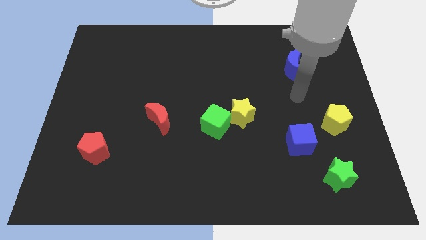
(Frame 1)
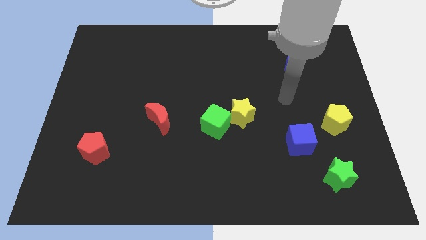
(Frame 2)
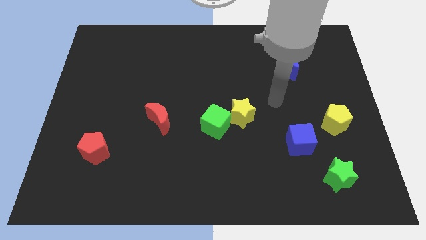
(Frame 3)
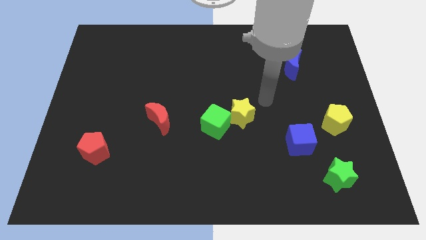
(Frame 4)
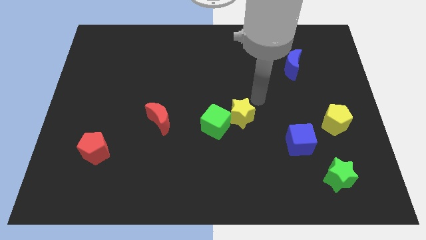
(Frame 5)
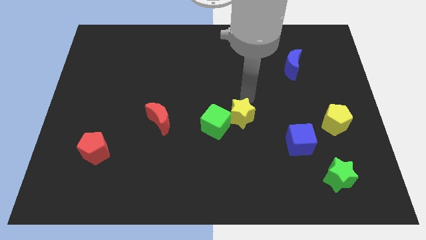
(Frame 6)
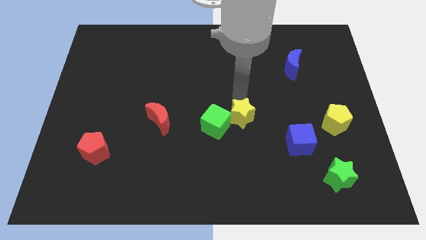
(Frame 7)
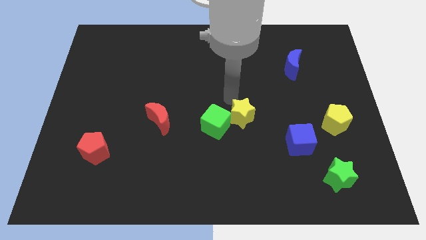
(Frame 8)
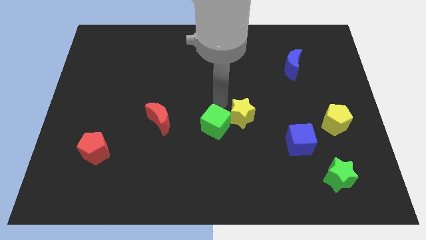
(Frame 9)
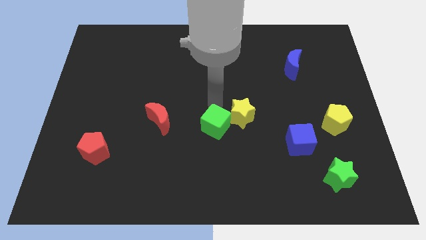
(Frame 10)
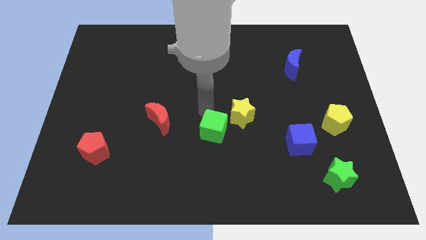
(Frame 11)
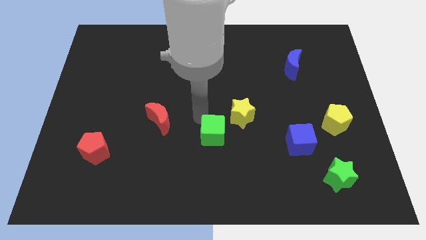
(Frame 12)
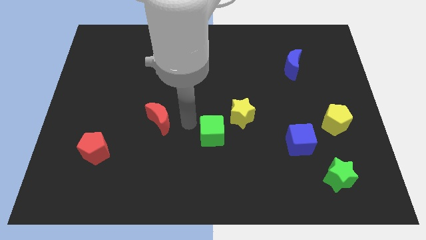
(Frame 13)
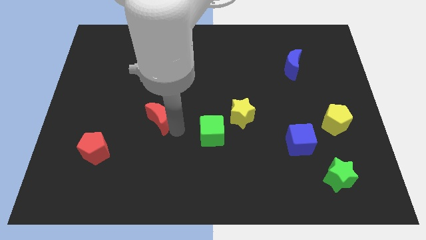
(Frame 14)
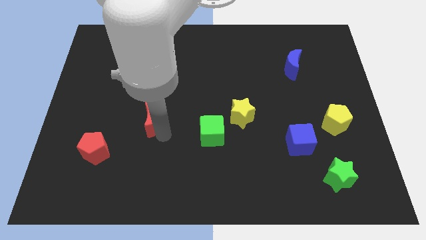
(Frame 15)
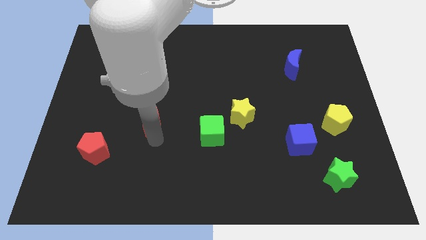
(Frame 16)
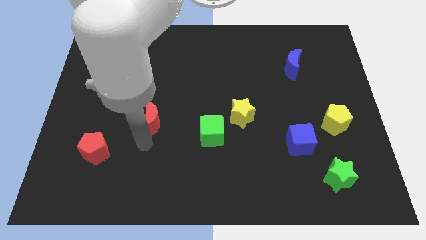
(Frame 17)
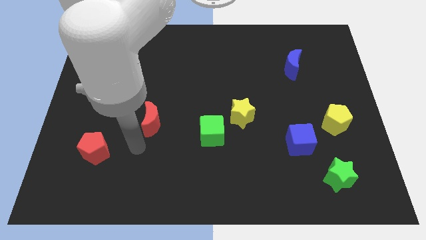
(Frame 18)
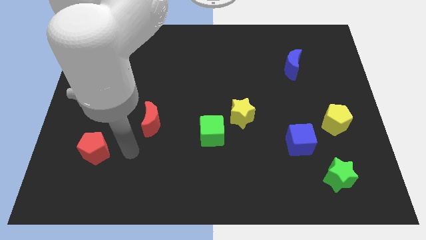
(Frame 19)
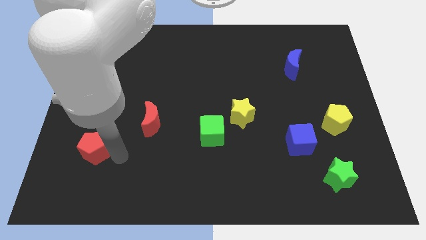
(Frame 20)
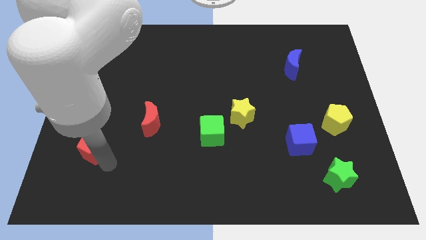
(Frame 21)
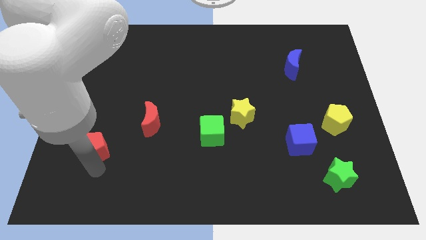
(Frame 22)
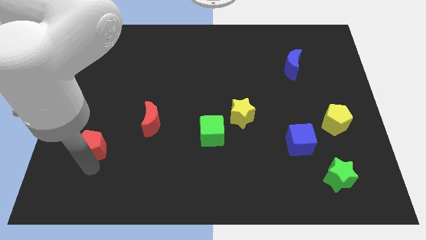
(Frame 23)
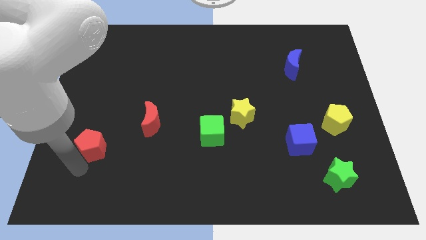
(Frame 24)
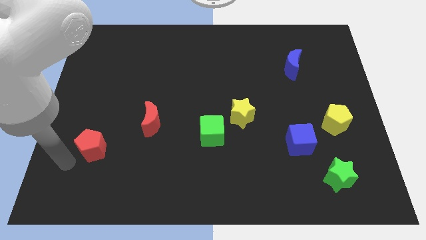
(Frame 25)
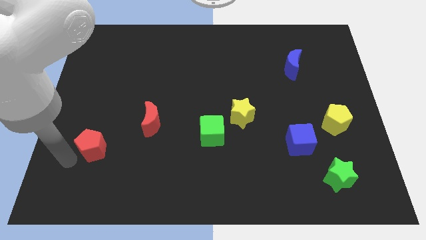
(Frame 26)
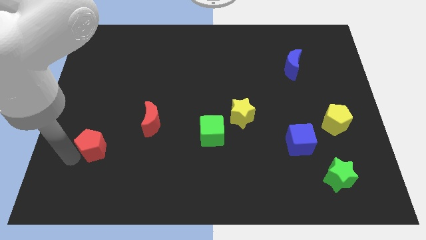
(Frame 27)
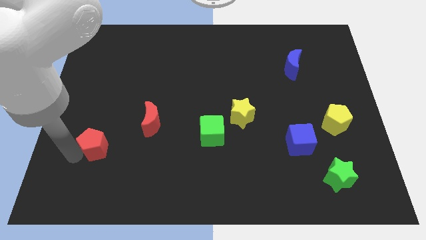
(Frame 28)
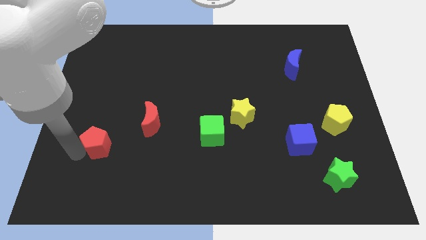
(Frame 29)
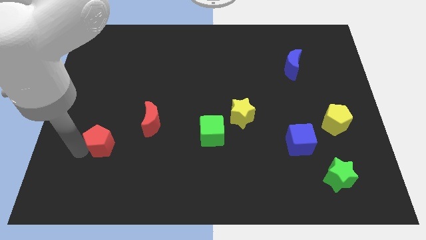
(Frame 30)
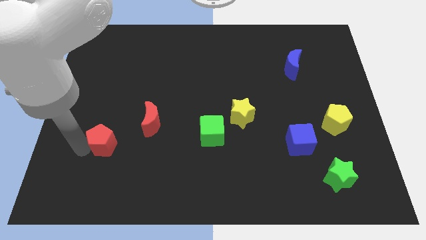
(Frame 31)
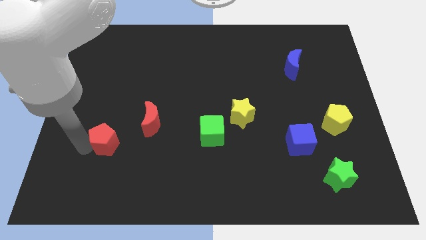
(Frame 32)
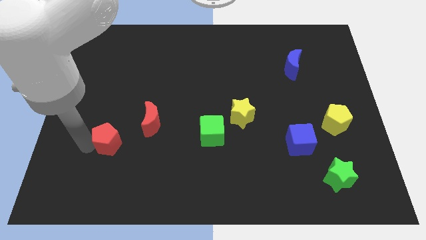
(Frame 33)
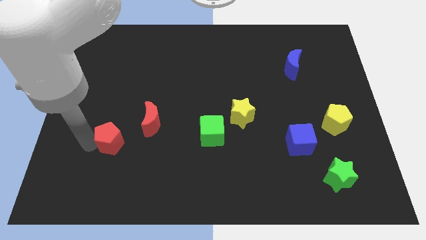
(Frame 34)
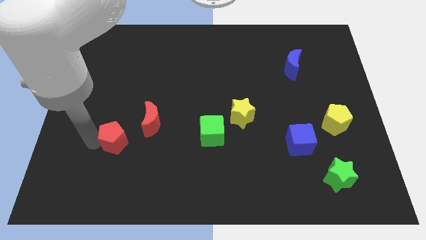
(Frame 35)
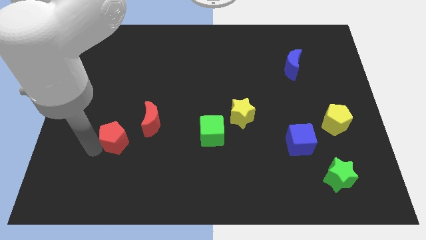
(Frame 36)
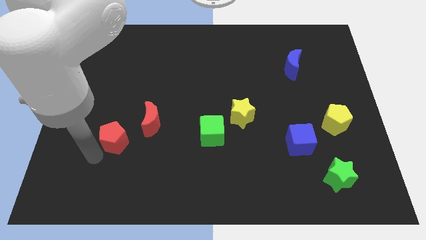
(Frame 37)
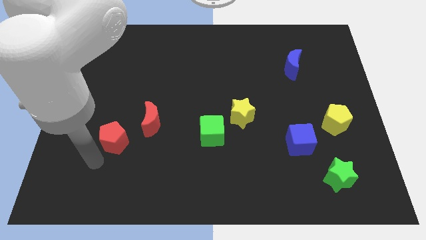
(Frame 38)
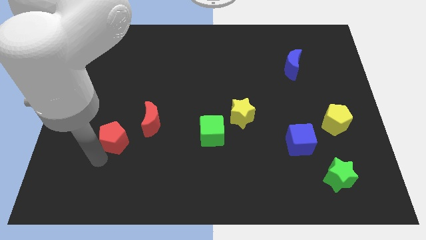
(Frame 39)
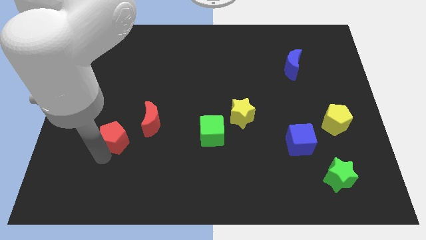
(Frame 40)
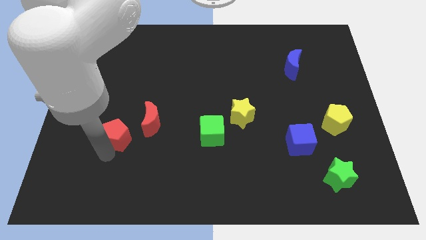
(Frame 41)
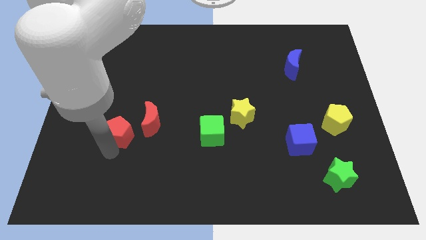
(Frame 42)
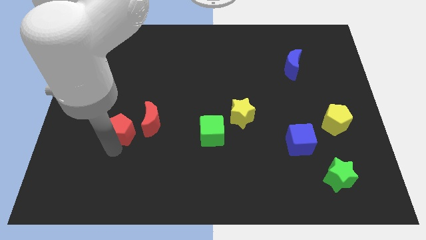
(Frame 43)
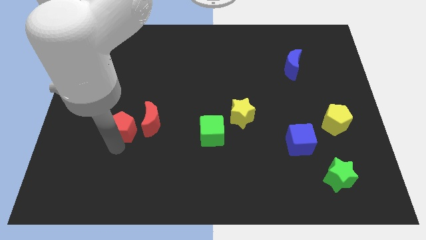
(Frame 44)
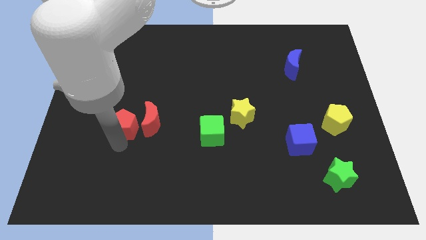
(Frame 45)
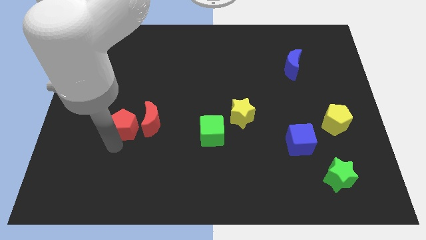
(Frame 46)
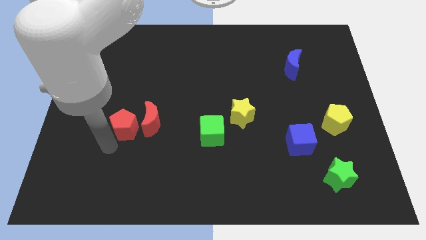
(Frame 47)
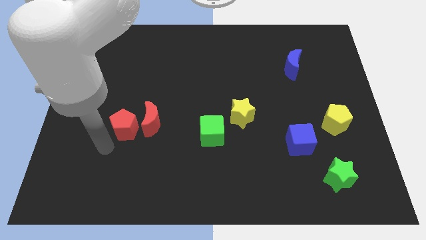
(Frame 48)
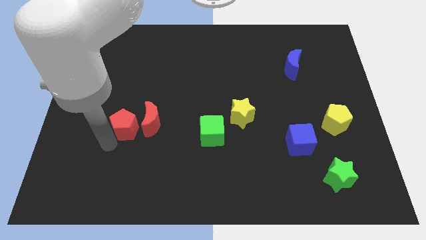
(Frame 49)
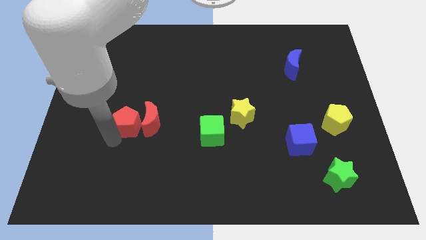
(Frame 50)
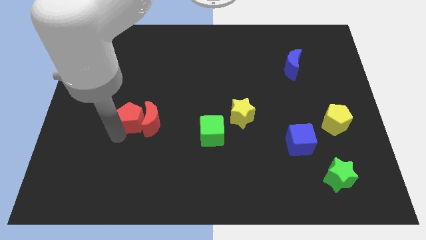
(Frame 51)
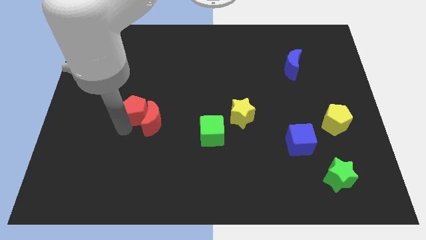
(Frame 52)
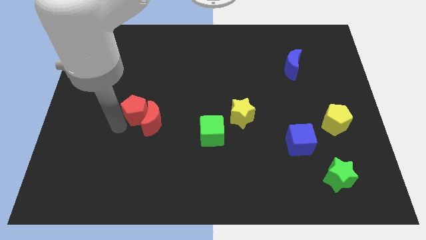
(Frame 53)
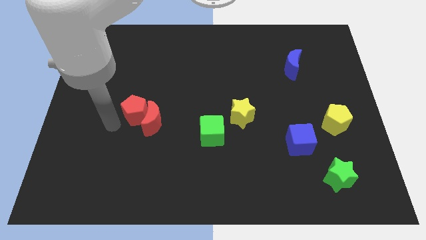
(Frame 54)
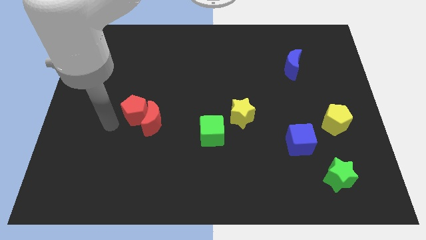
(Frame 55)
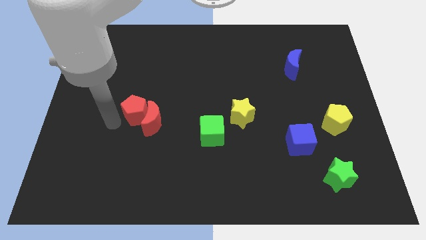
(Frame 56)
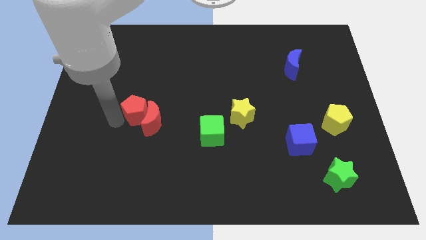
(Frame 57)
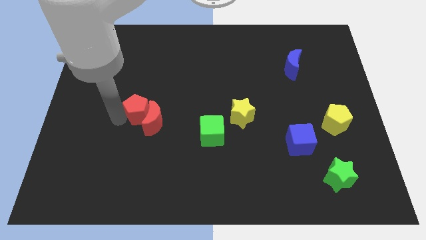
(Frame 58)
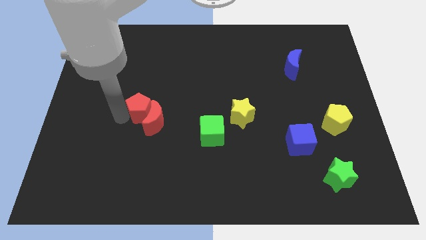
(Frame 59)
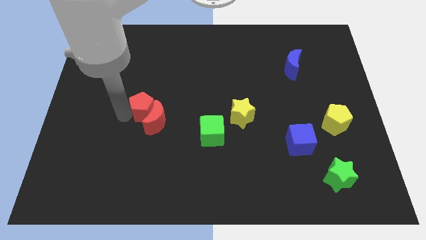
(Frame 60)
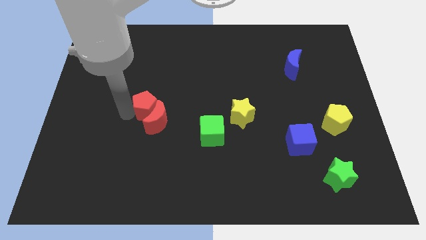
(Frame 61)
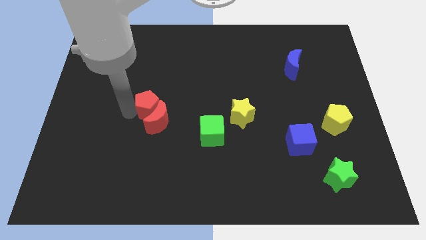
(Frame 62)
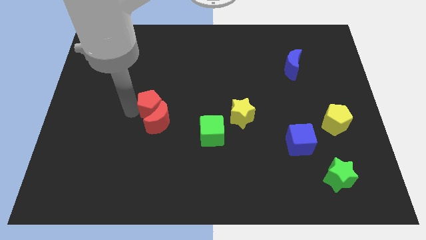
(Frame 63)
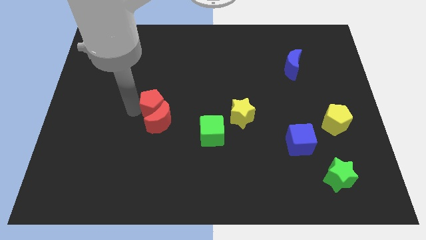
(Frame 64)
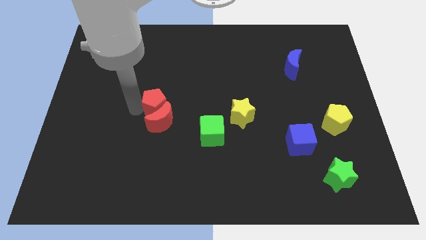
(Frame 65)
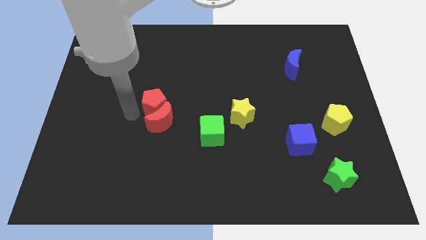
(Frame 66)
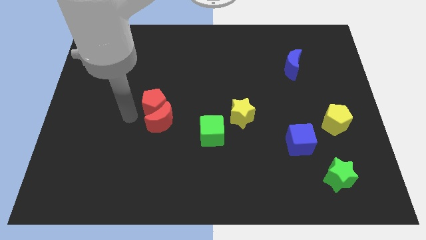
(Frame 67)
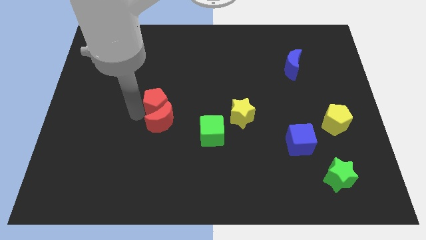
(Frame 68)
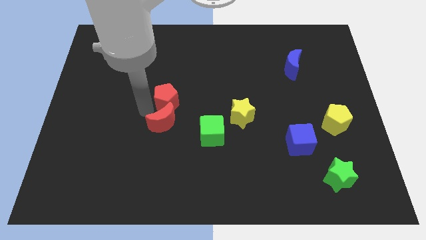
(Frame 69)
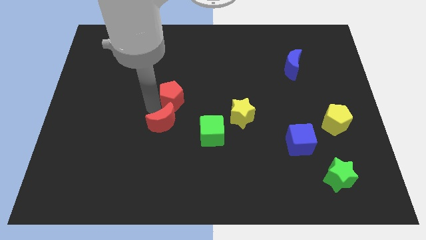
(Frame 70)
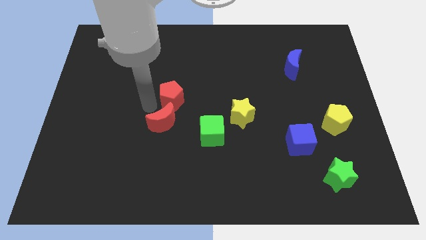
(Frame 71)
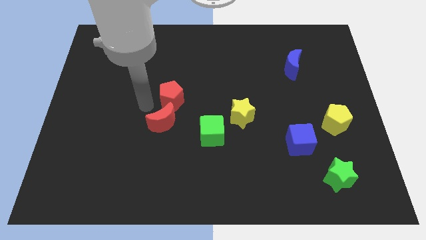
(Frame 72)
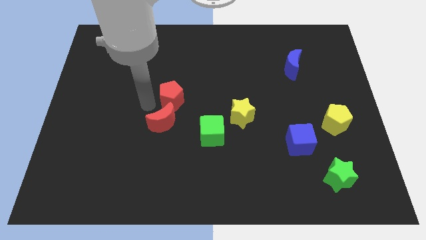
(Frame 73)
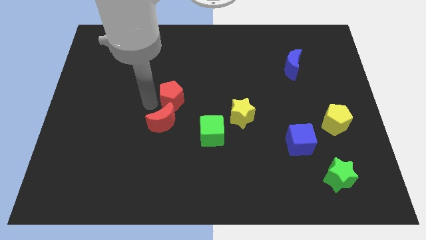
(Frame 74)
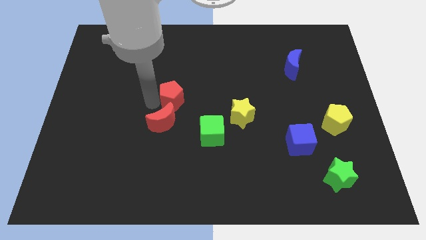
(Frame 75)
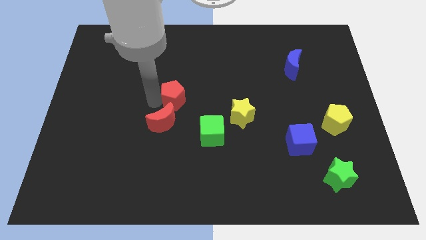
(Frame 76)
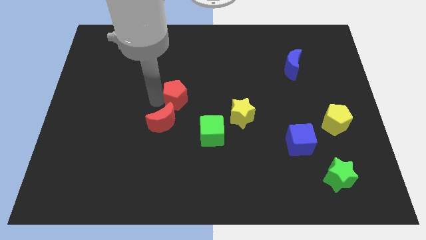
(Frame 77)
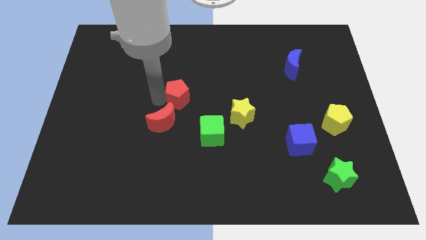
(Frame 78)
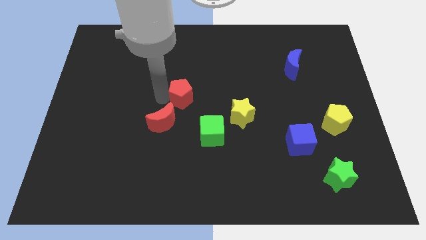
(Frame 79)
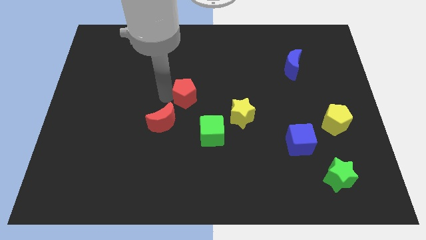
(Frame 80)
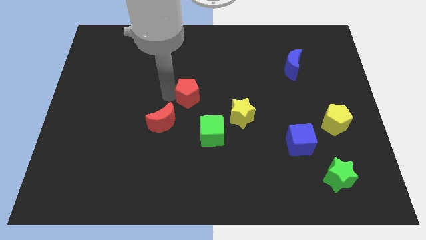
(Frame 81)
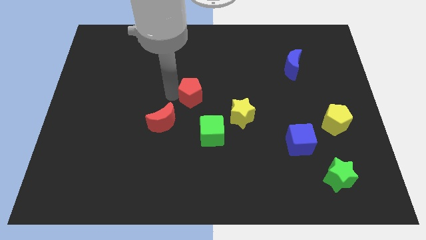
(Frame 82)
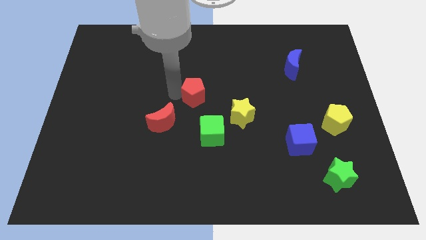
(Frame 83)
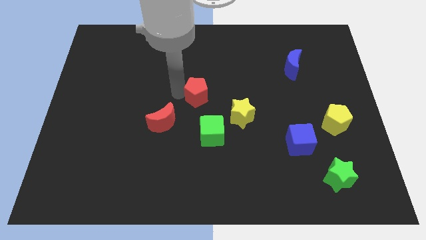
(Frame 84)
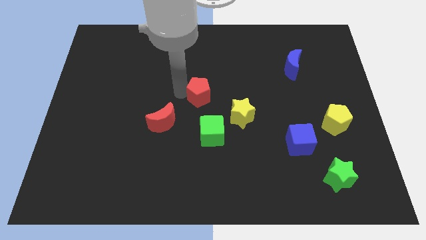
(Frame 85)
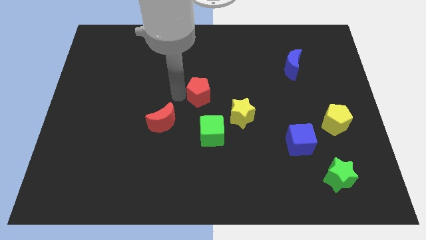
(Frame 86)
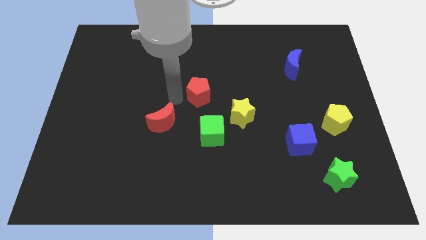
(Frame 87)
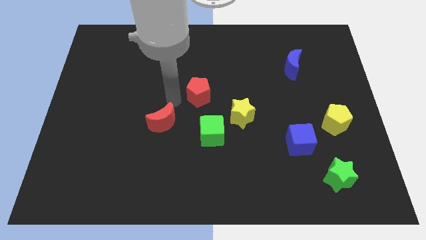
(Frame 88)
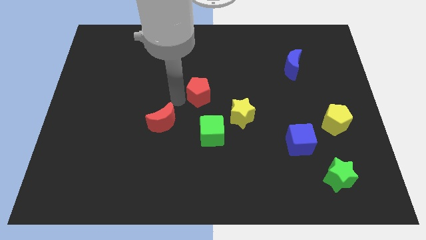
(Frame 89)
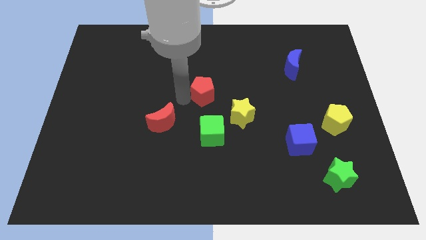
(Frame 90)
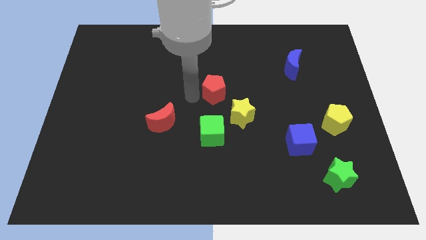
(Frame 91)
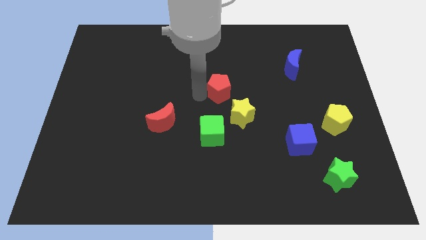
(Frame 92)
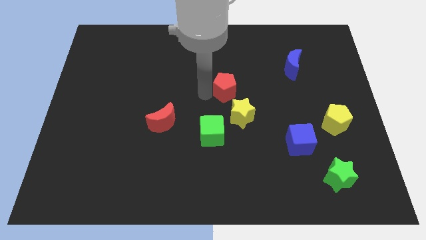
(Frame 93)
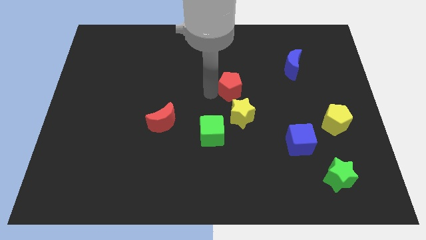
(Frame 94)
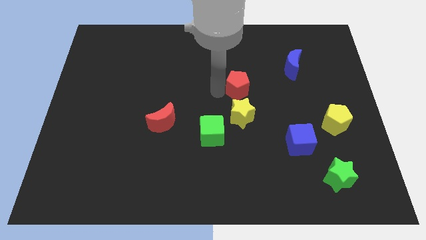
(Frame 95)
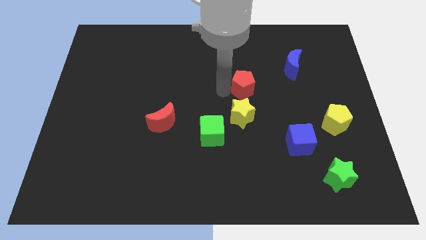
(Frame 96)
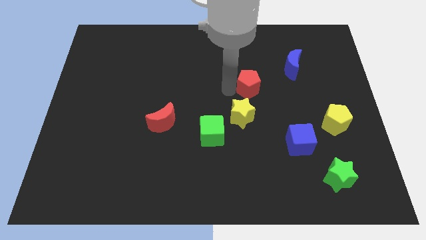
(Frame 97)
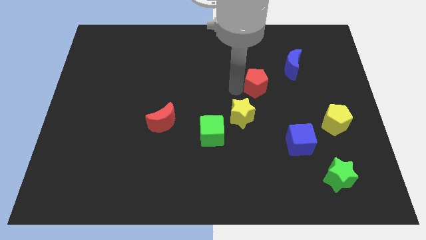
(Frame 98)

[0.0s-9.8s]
put the red pentagon to the bottom left of the blue moon
